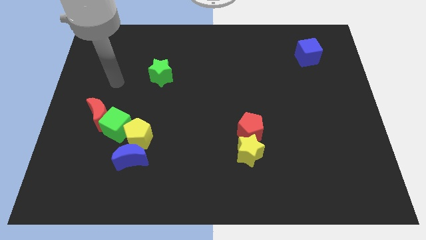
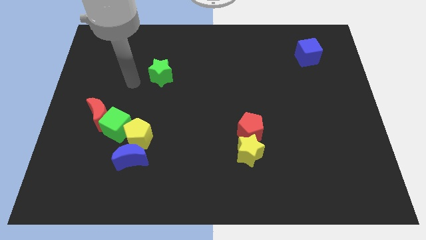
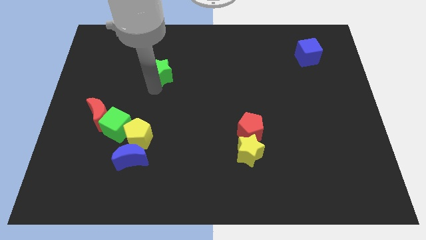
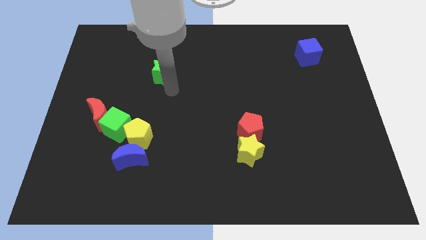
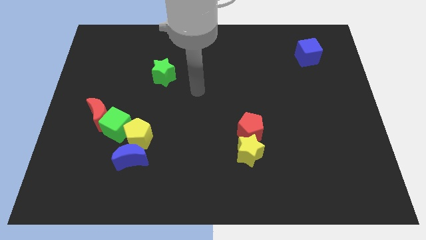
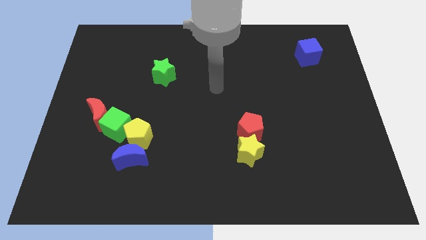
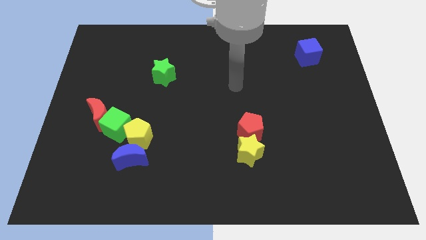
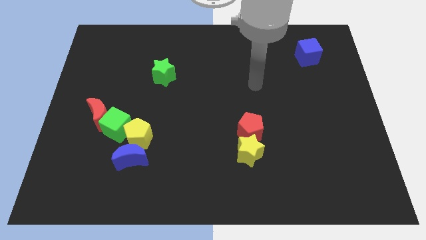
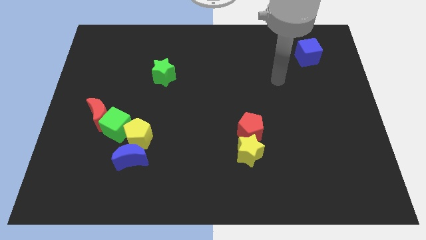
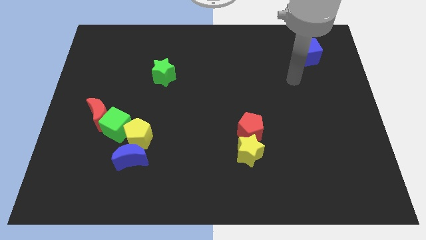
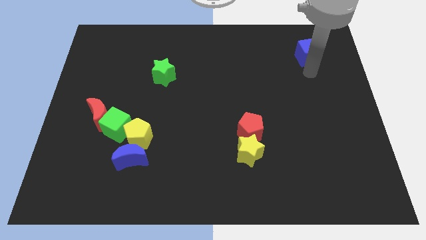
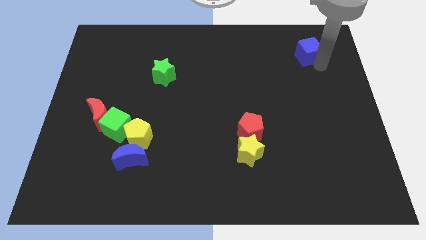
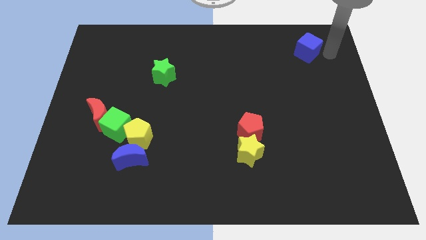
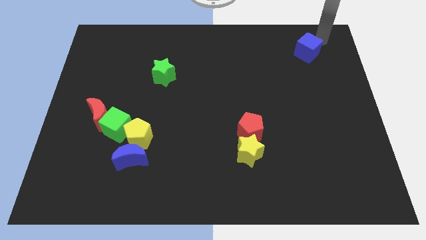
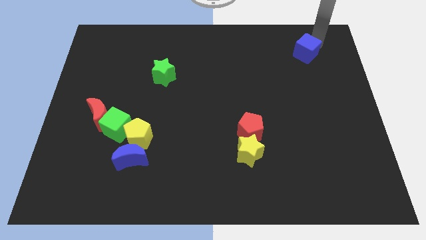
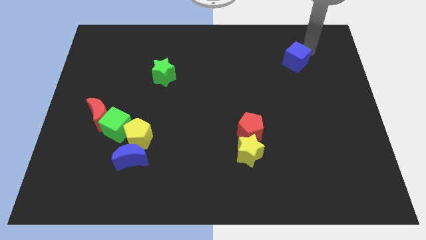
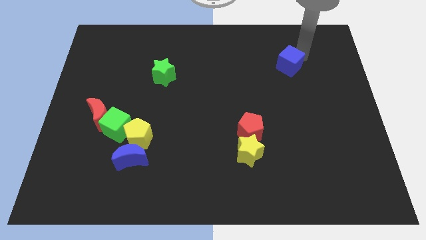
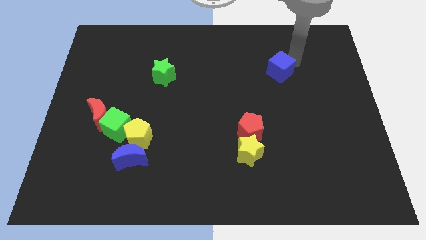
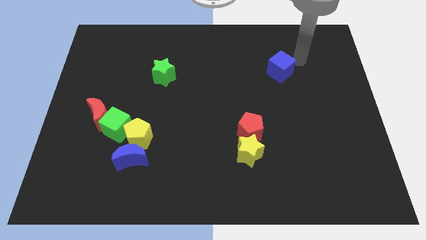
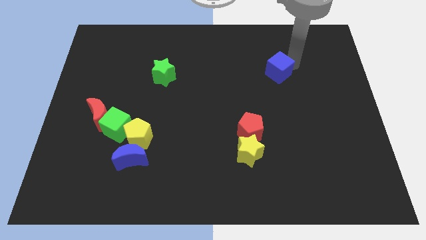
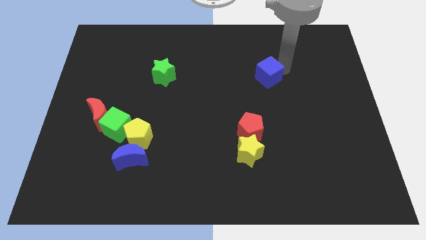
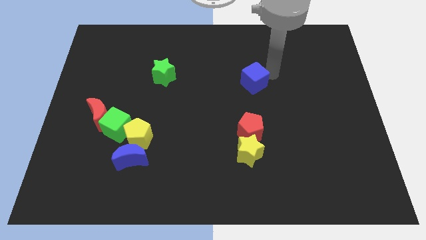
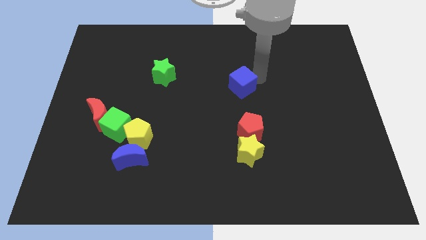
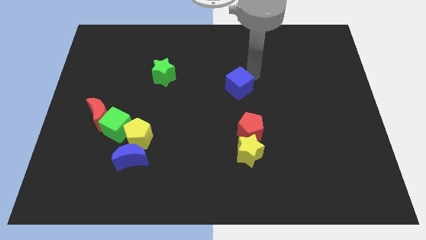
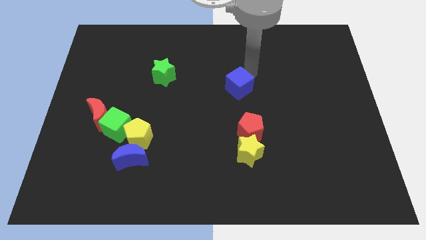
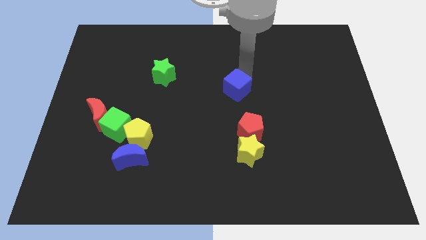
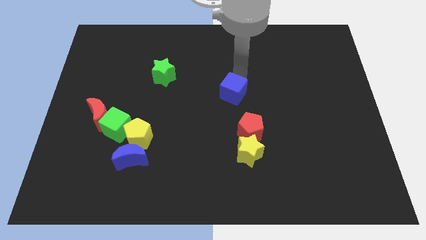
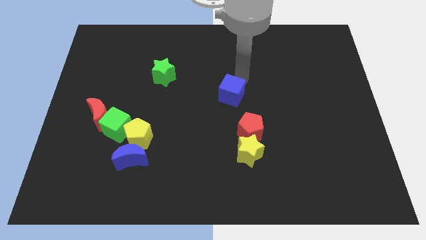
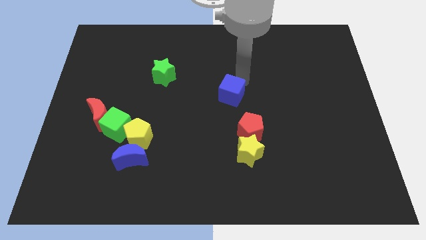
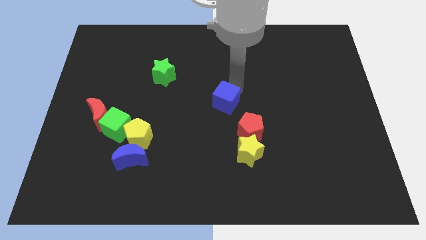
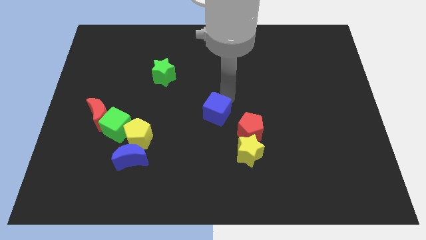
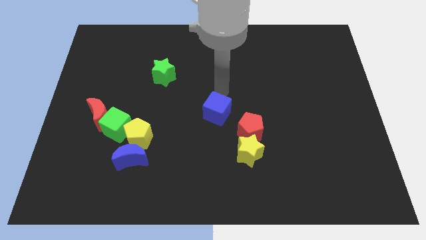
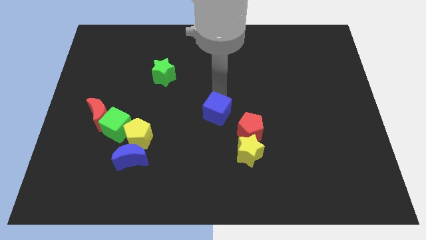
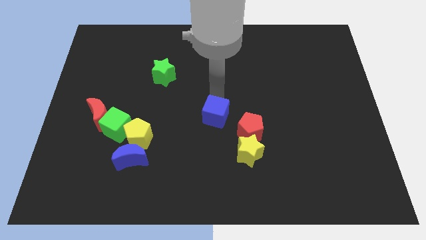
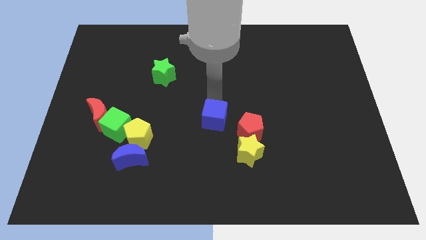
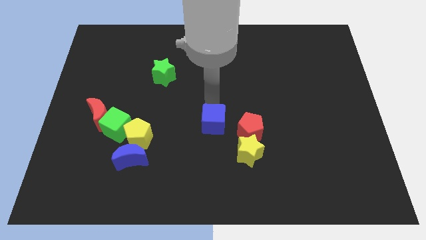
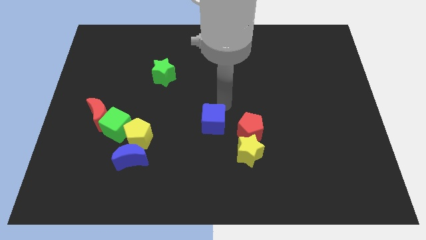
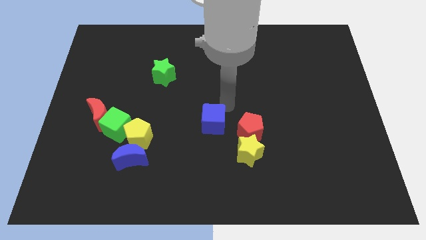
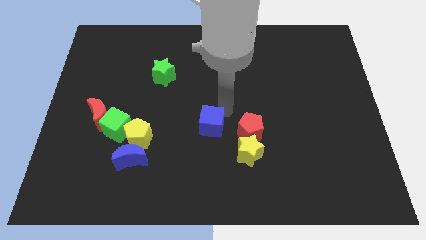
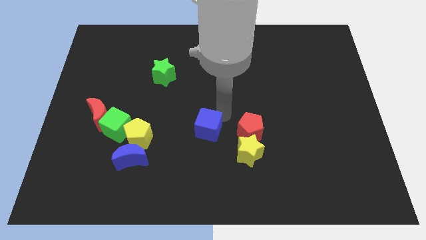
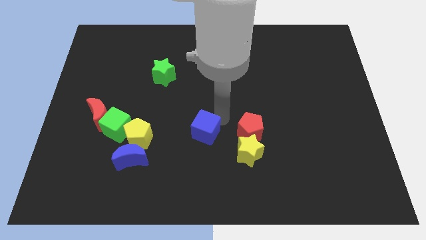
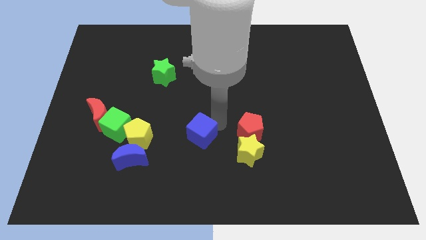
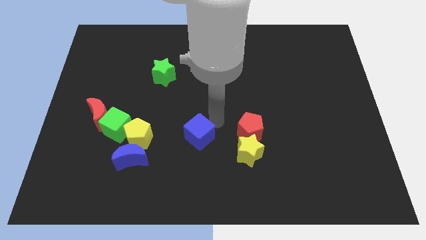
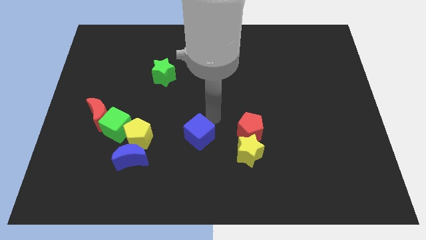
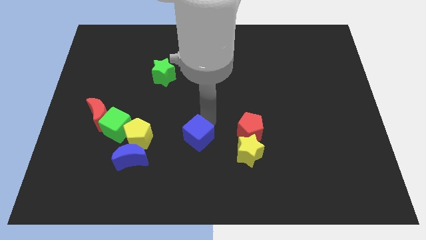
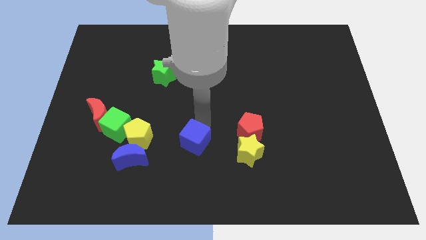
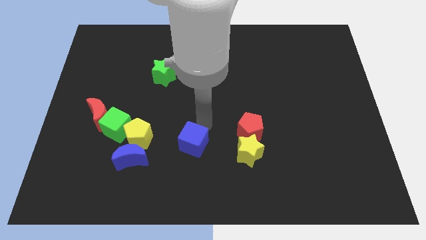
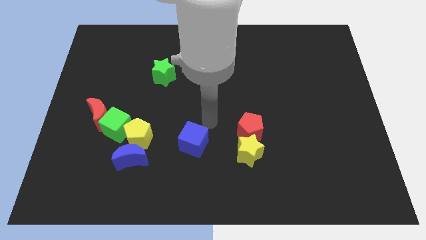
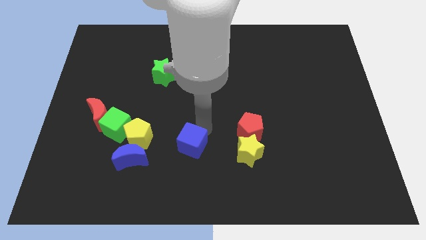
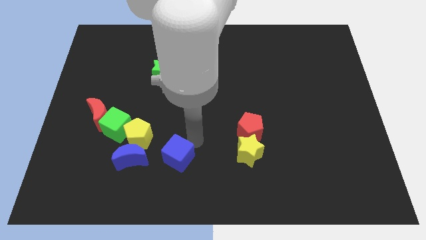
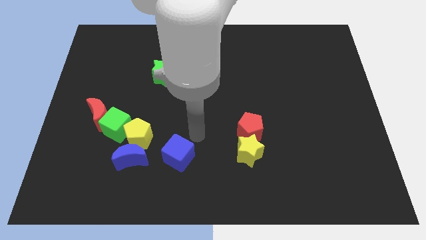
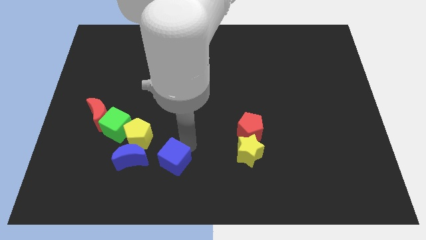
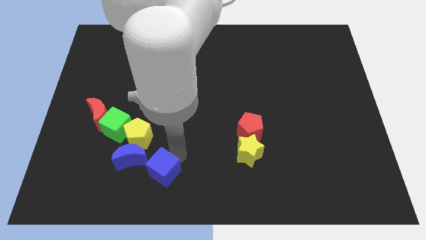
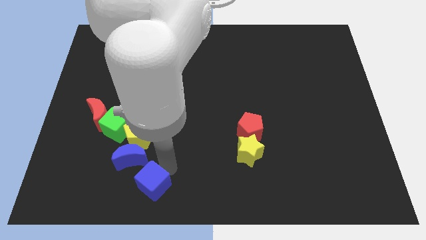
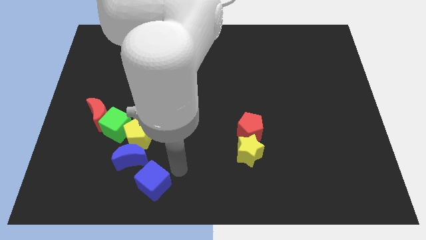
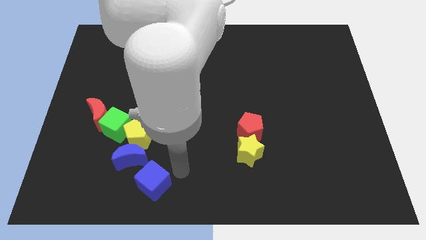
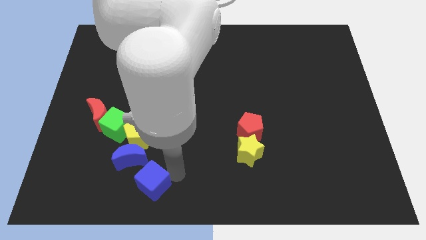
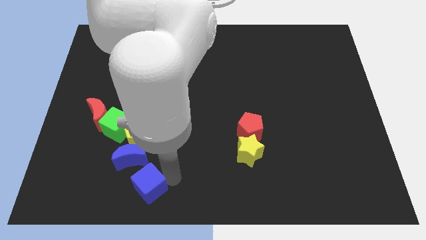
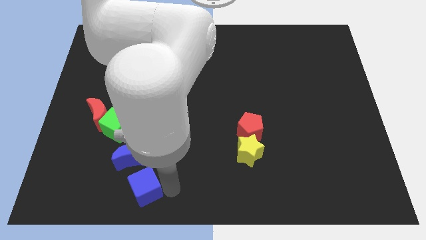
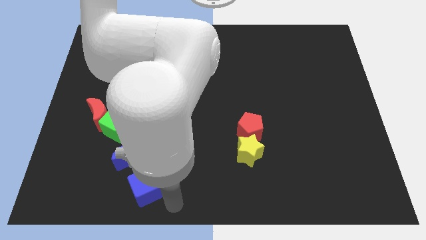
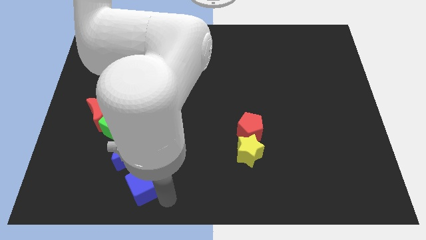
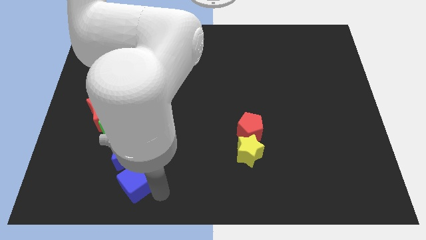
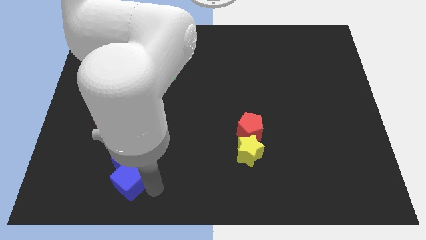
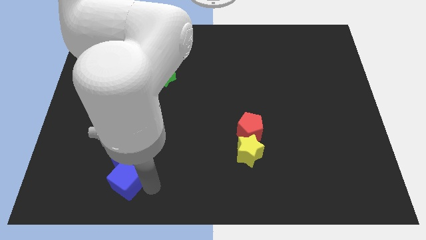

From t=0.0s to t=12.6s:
push the blue cube below the green cube
